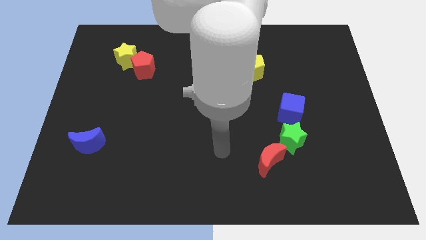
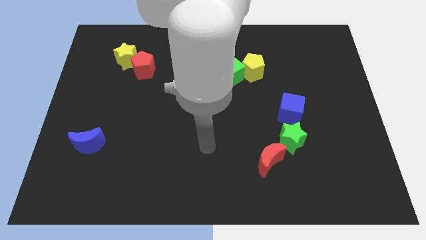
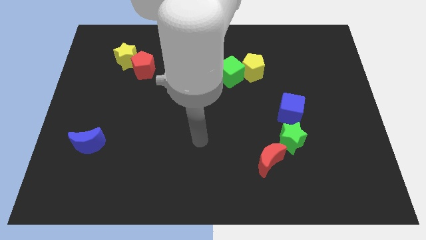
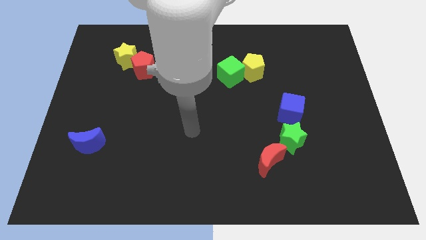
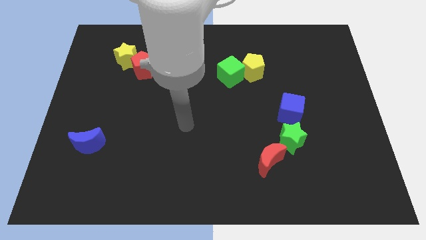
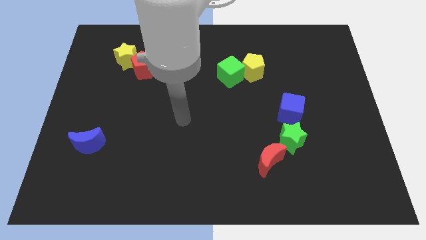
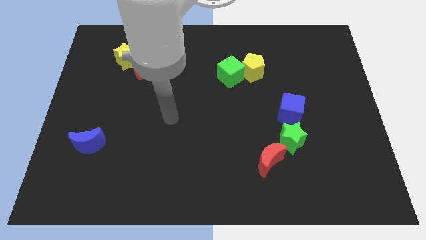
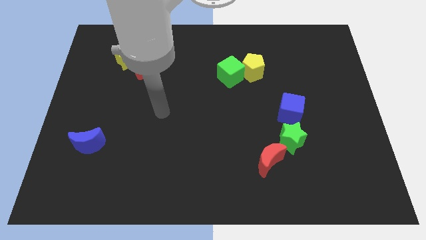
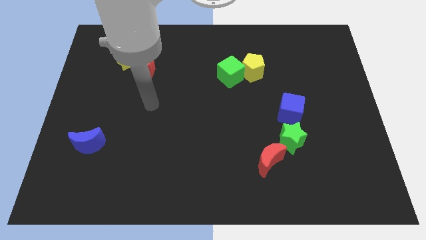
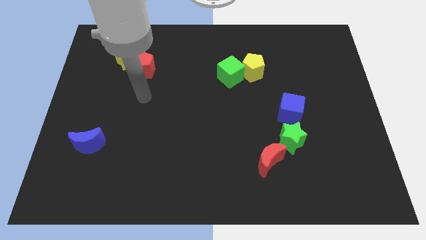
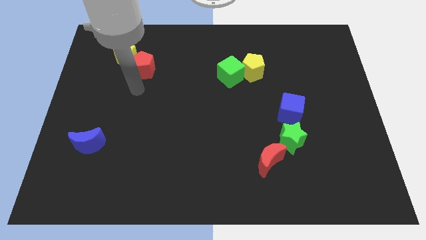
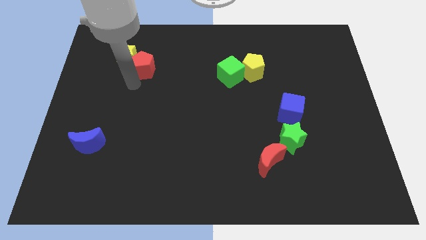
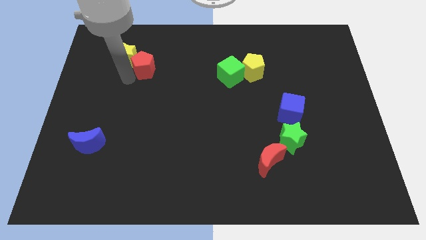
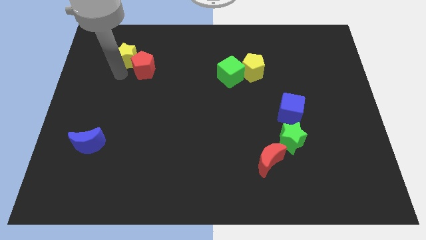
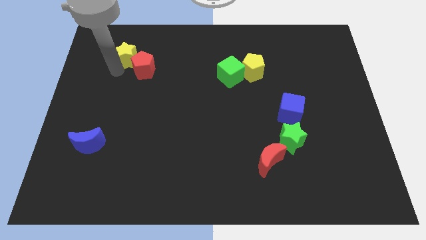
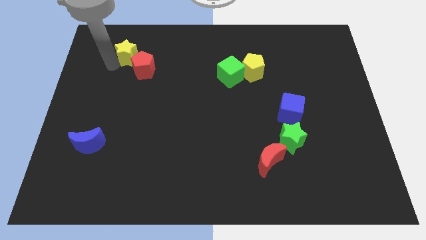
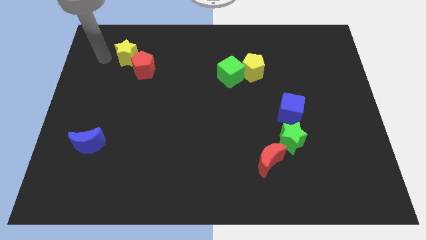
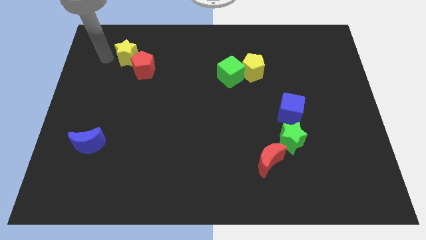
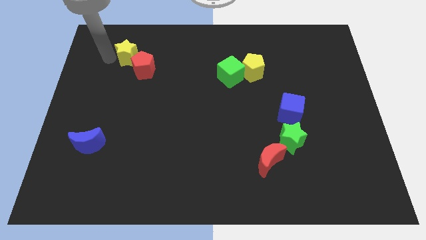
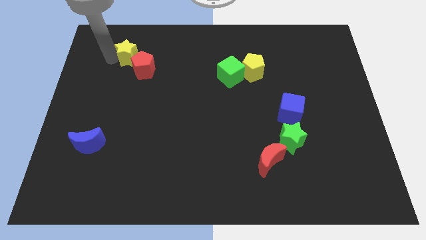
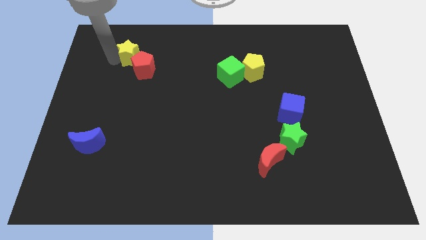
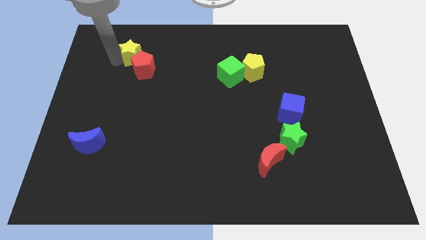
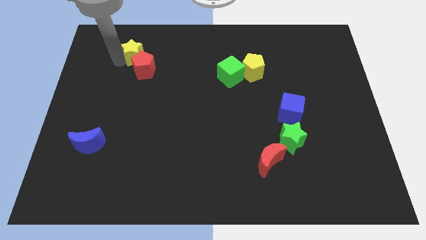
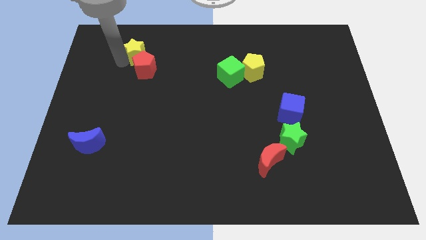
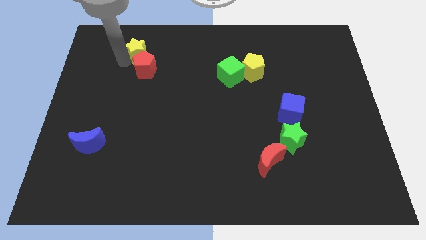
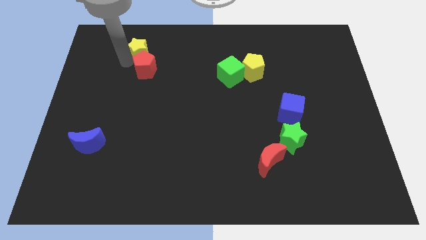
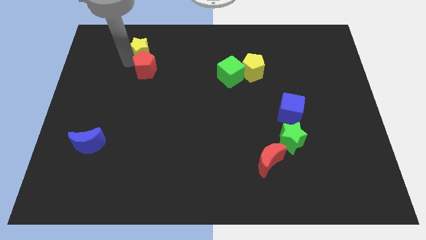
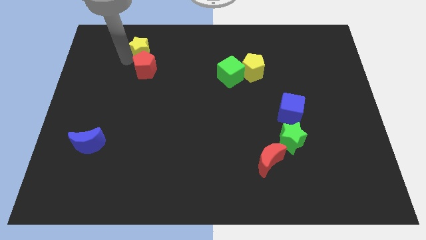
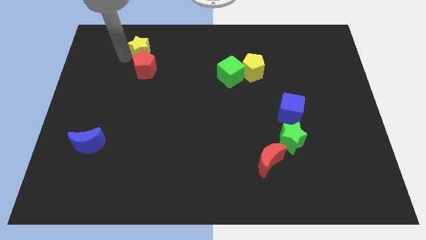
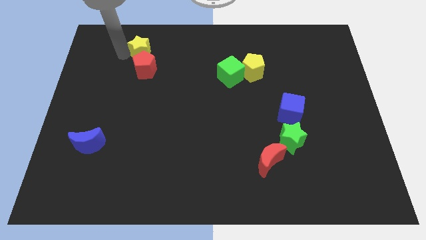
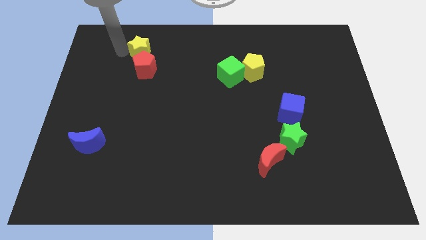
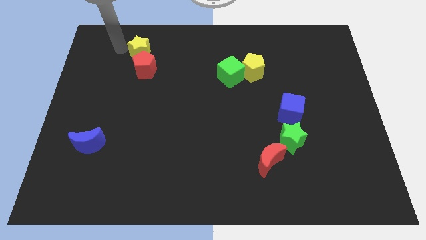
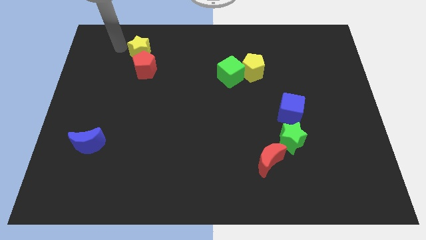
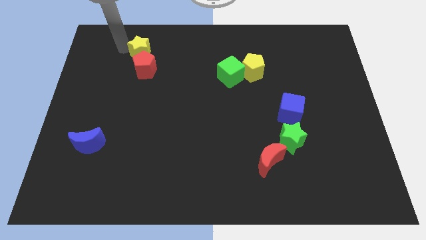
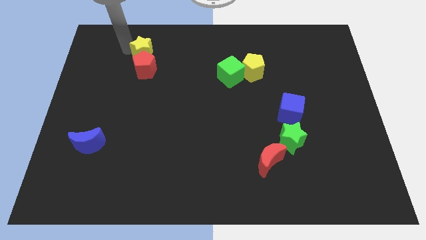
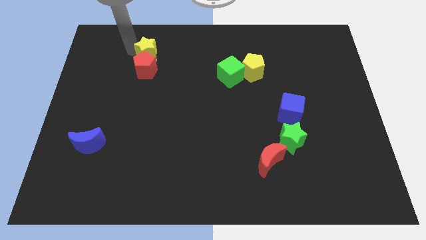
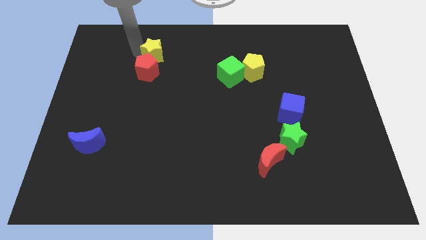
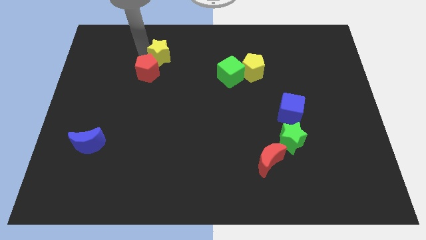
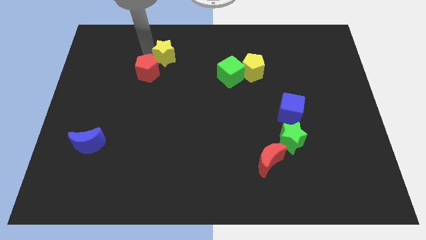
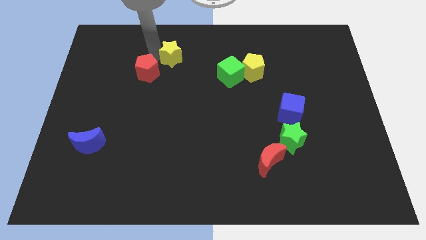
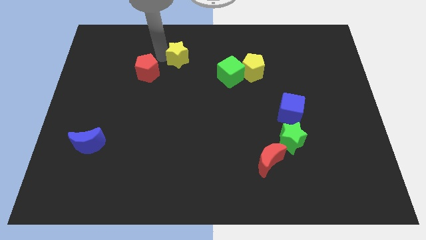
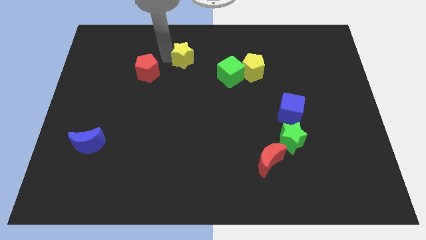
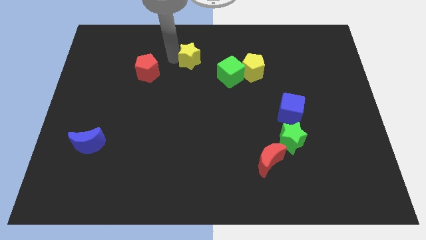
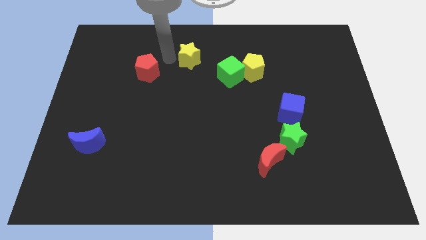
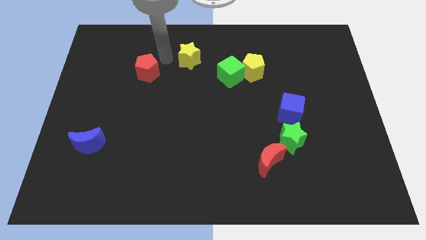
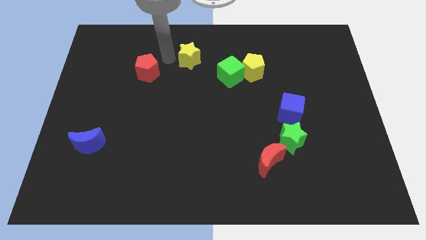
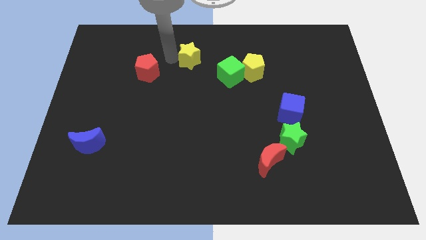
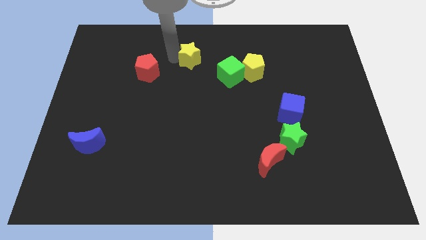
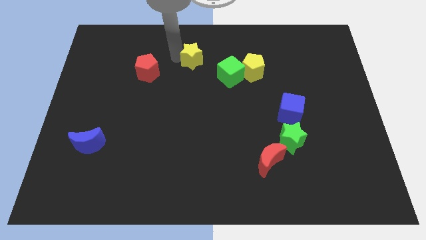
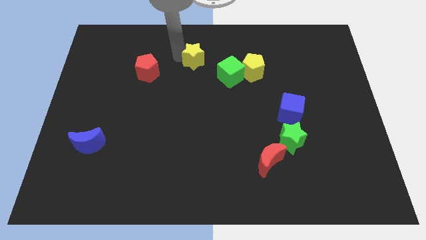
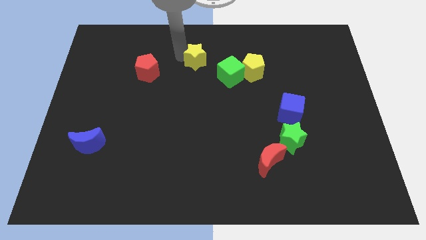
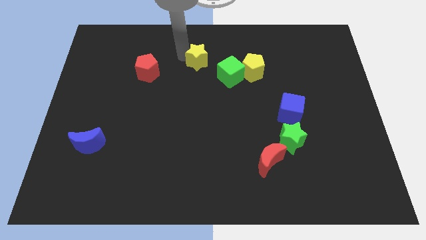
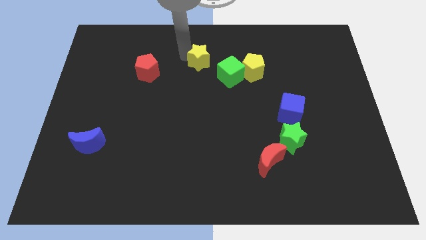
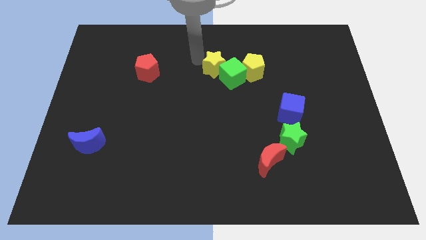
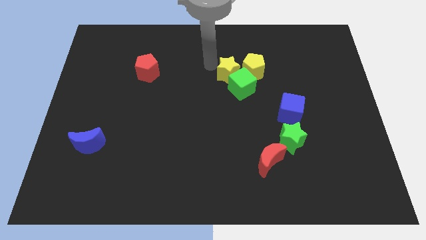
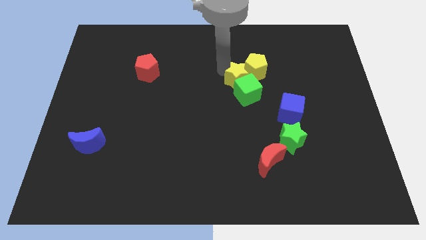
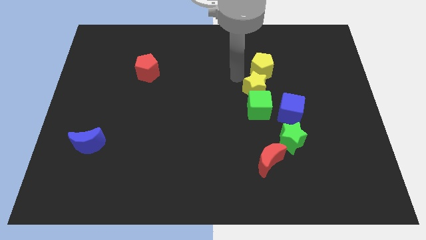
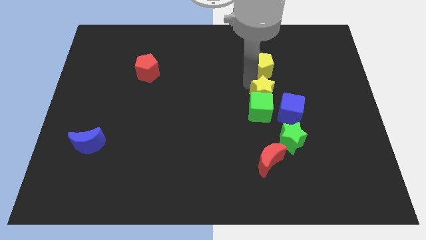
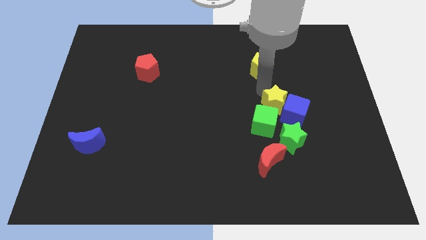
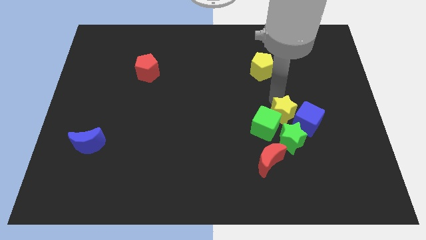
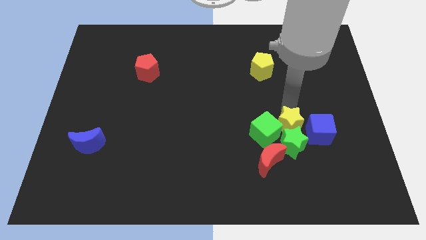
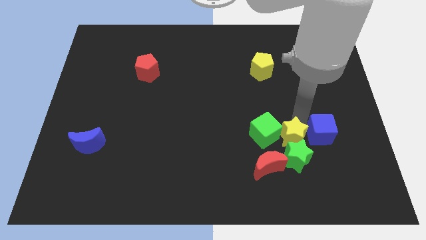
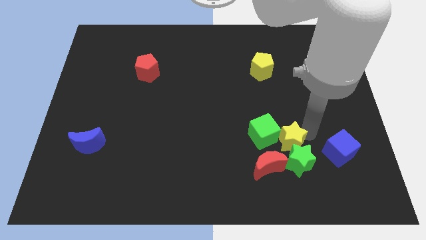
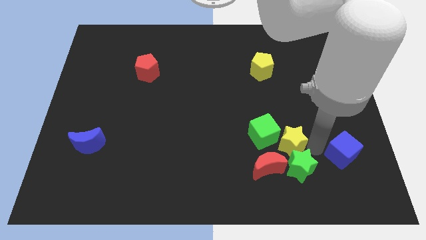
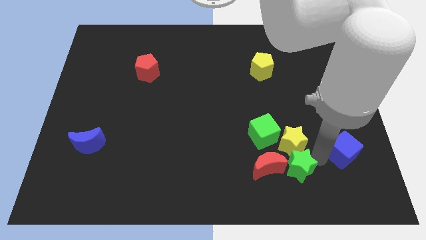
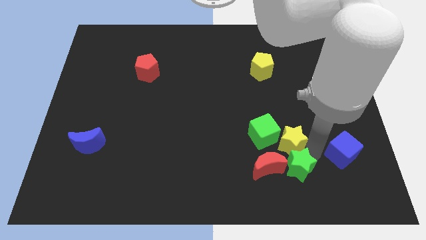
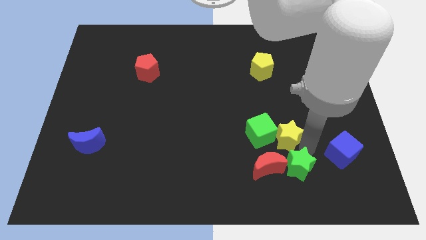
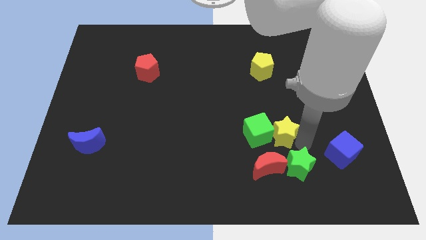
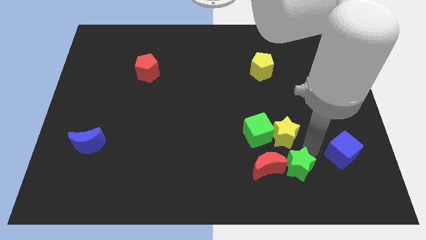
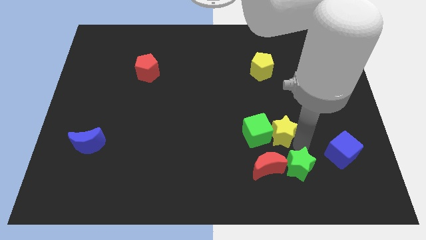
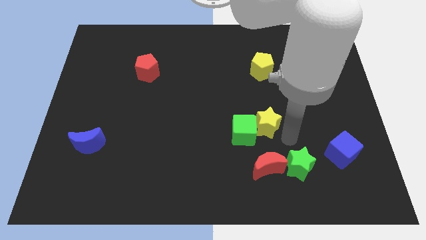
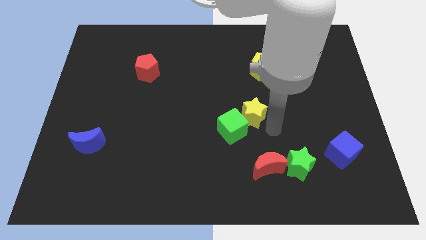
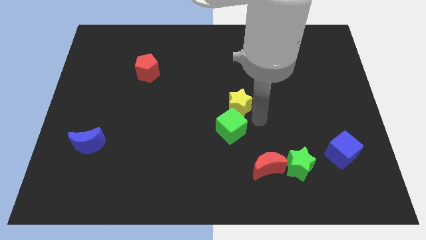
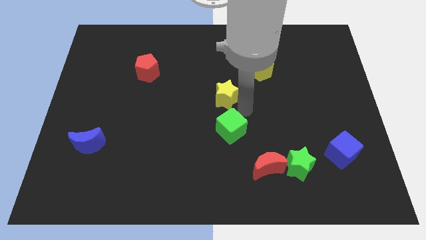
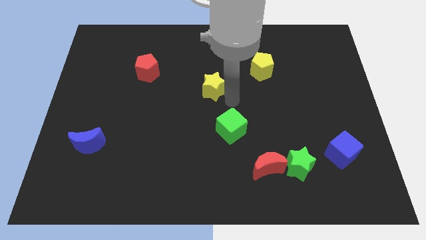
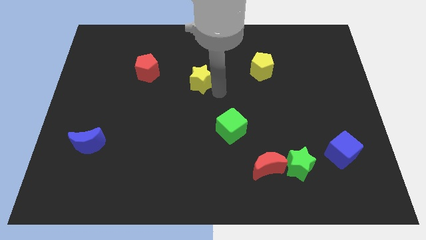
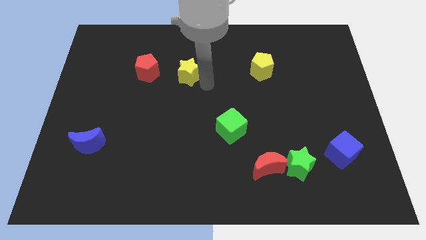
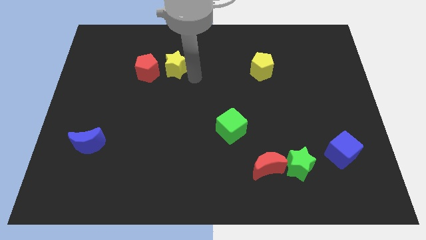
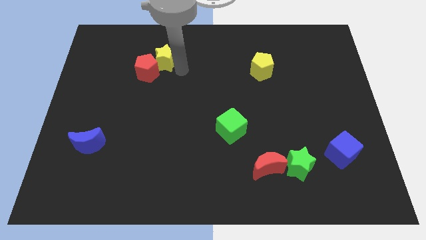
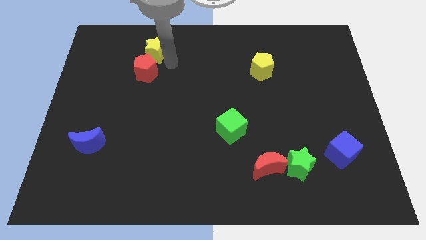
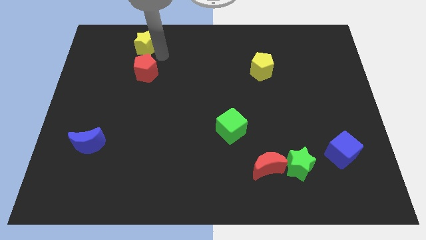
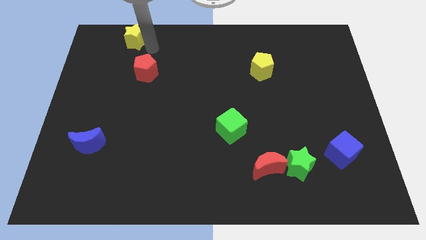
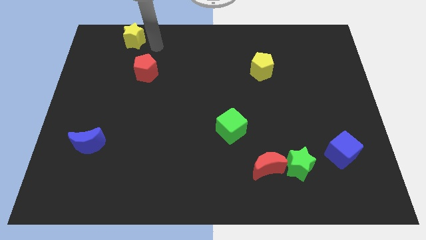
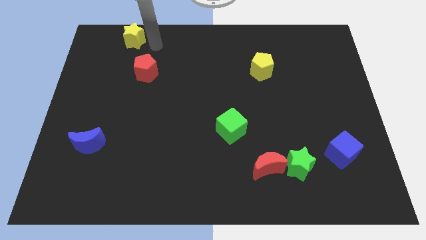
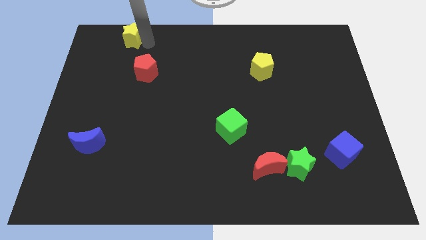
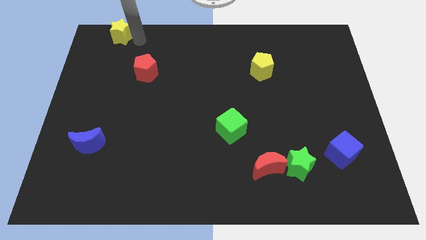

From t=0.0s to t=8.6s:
slide the yellow star to the top left
